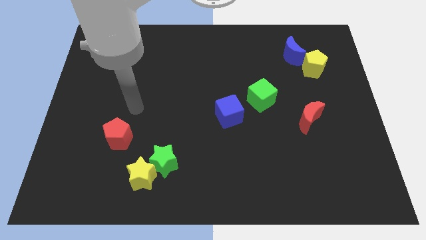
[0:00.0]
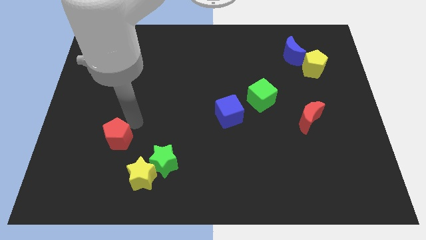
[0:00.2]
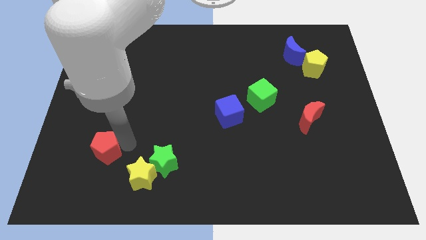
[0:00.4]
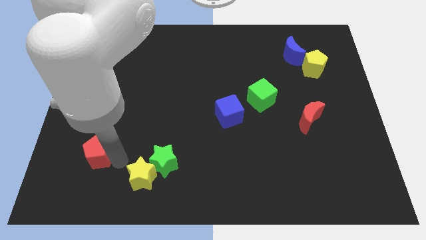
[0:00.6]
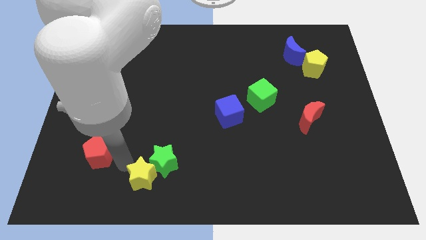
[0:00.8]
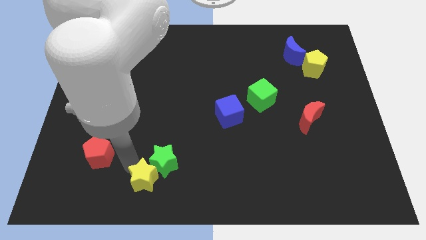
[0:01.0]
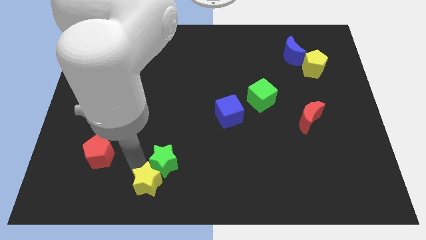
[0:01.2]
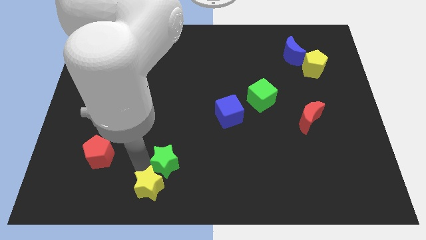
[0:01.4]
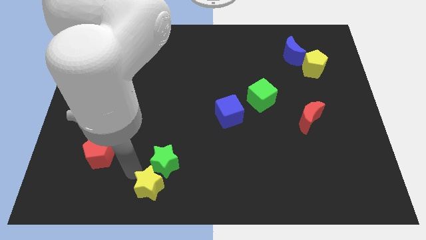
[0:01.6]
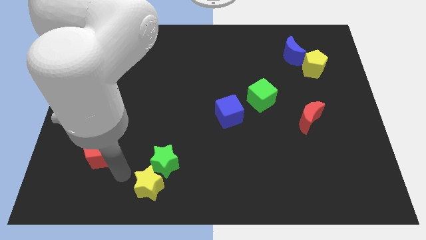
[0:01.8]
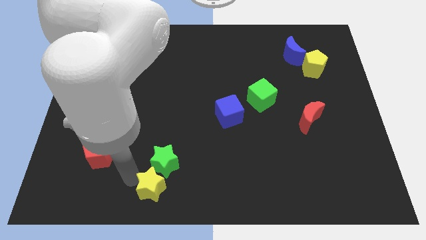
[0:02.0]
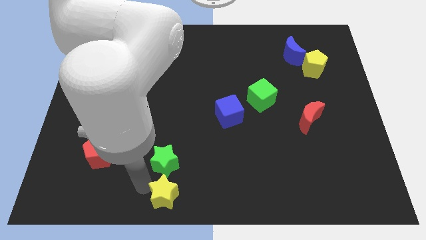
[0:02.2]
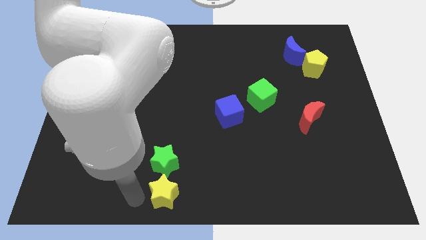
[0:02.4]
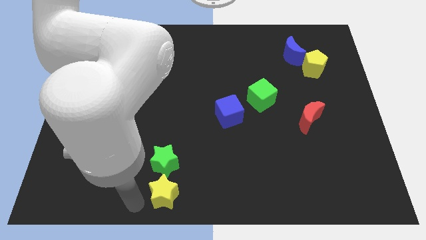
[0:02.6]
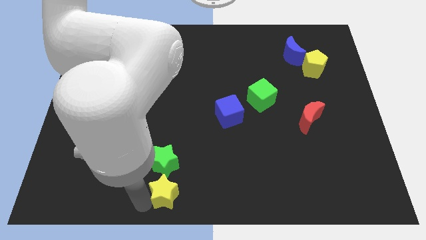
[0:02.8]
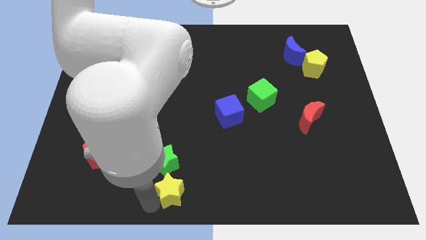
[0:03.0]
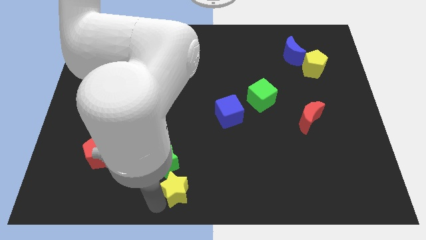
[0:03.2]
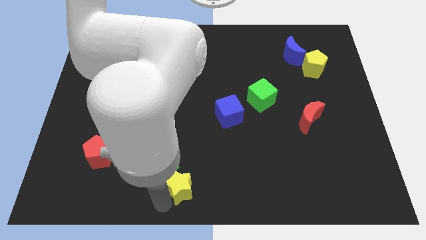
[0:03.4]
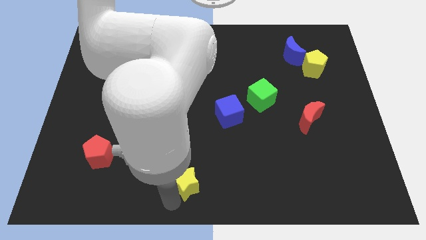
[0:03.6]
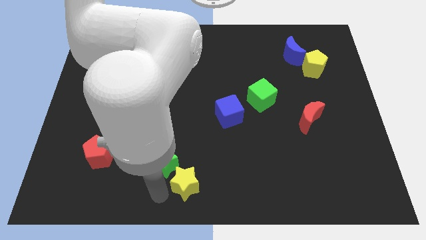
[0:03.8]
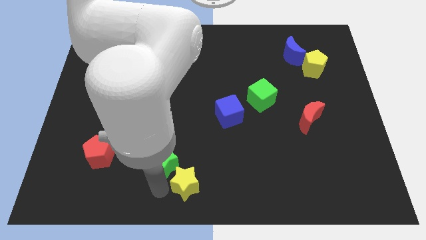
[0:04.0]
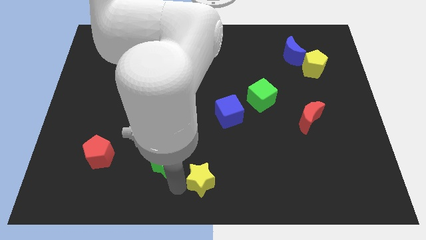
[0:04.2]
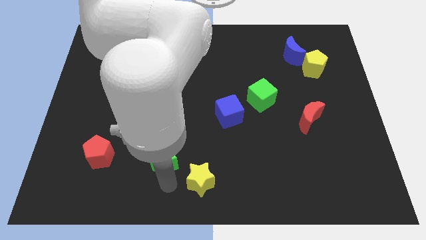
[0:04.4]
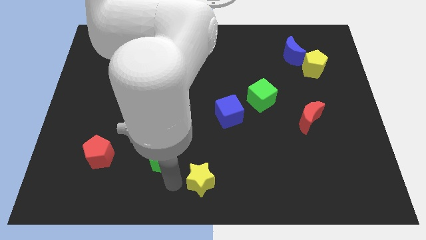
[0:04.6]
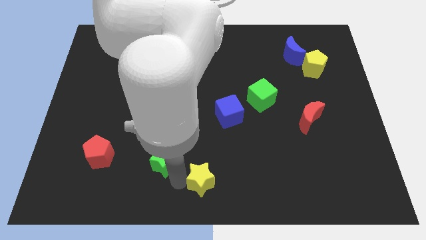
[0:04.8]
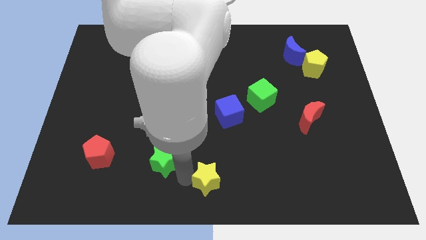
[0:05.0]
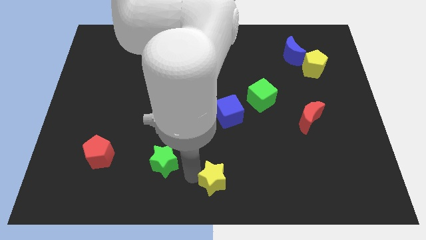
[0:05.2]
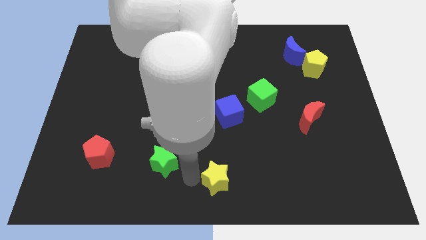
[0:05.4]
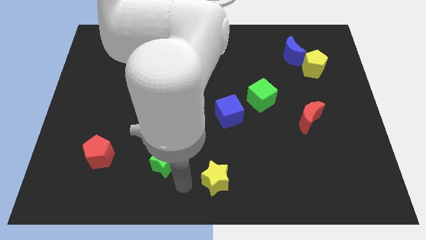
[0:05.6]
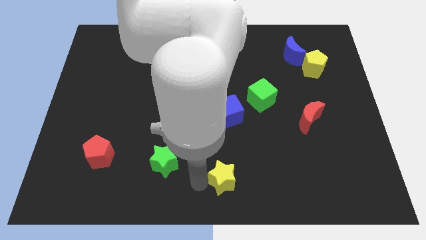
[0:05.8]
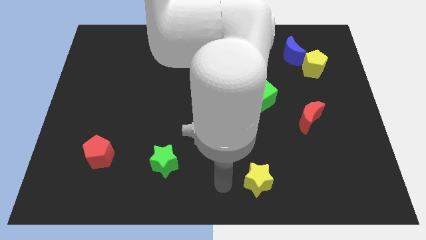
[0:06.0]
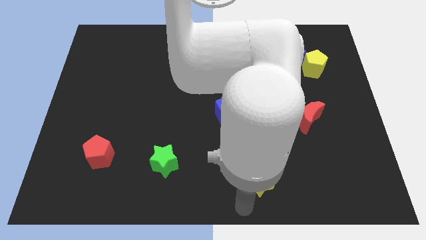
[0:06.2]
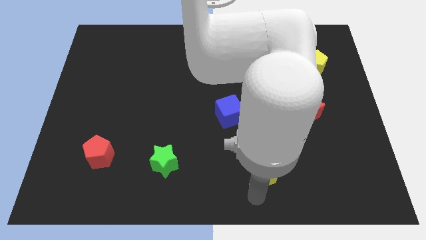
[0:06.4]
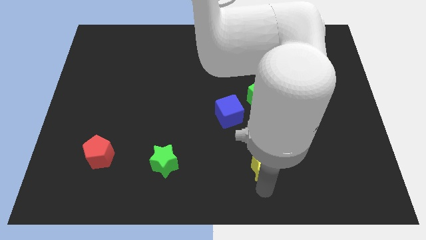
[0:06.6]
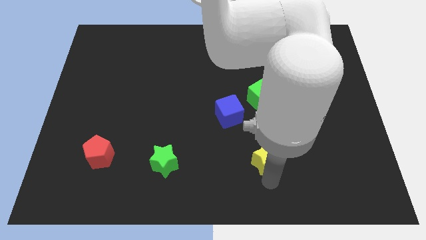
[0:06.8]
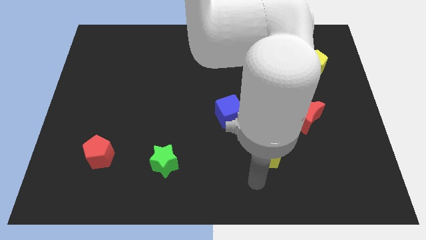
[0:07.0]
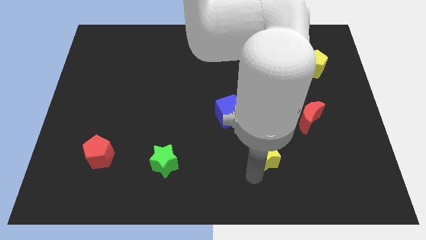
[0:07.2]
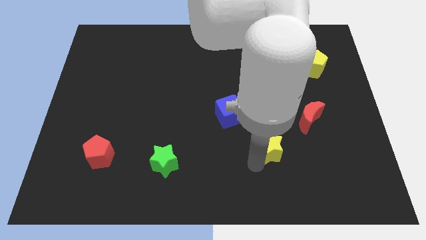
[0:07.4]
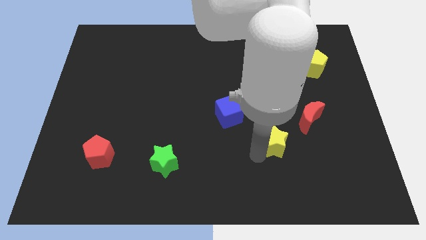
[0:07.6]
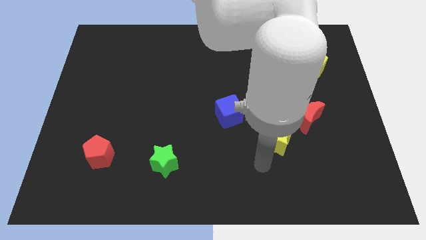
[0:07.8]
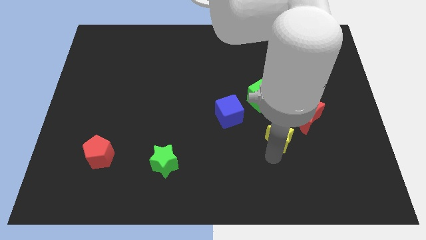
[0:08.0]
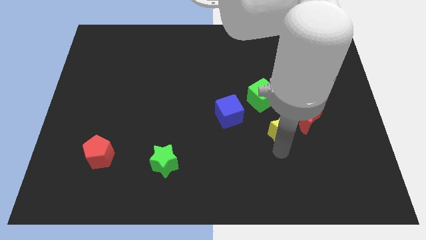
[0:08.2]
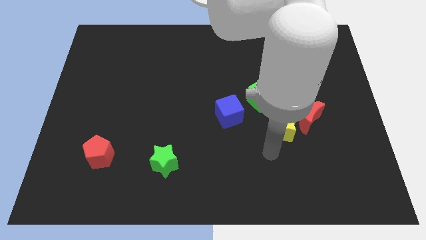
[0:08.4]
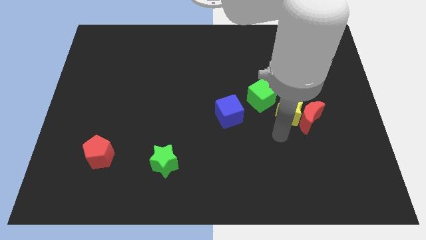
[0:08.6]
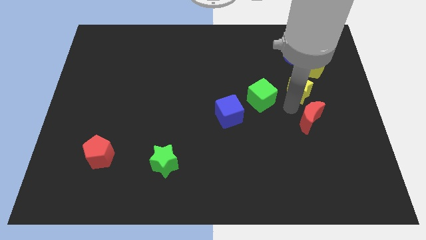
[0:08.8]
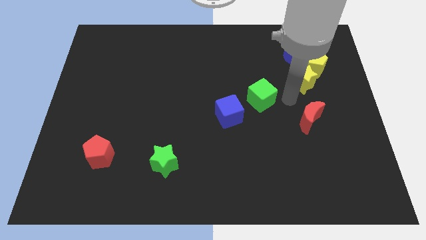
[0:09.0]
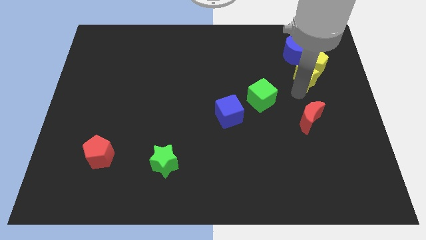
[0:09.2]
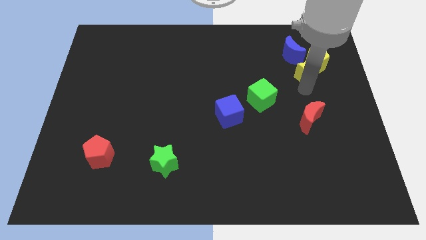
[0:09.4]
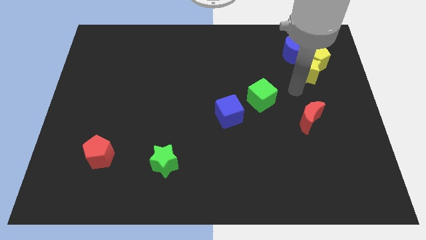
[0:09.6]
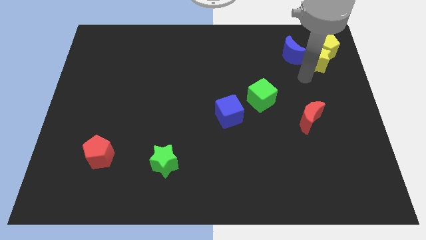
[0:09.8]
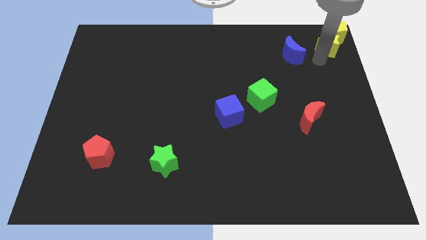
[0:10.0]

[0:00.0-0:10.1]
push the yellow star to the top right corner
